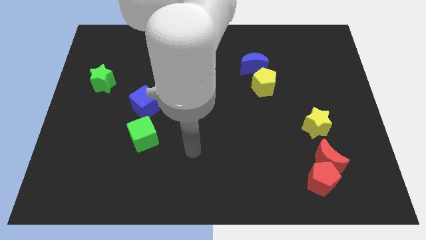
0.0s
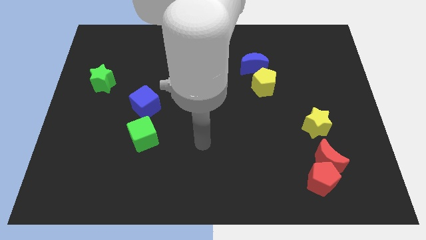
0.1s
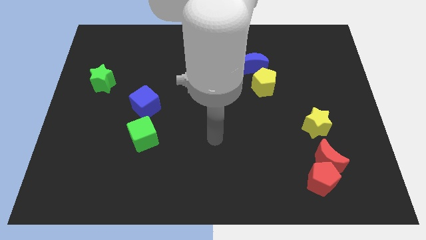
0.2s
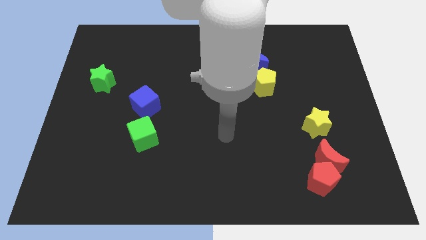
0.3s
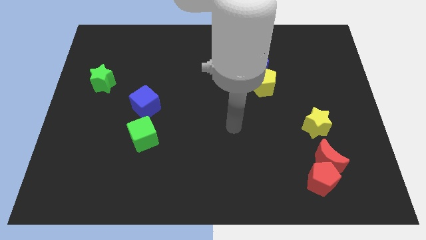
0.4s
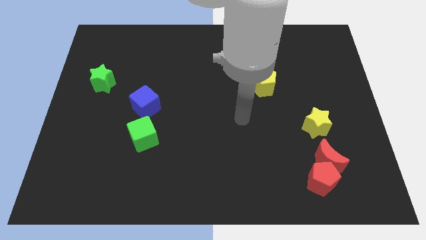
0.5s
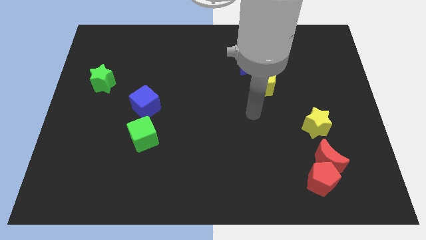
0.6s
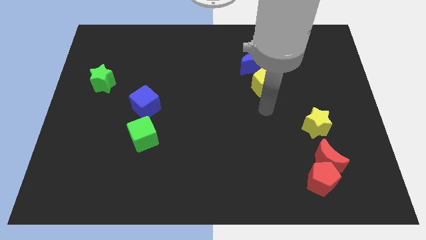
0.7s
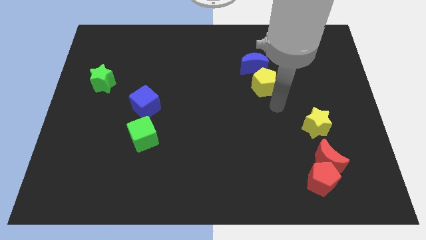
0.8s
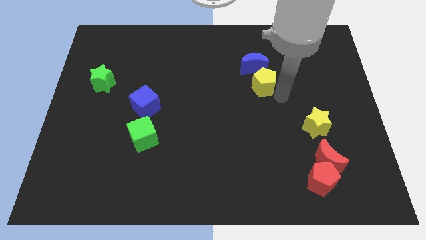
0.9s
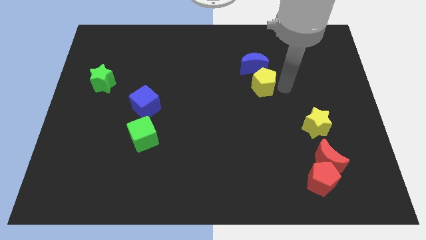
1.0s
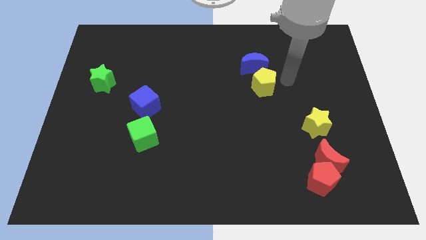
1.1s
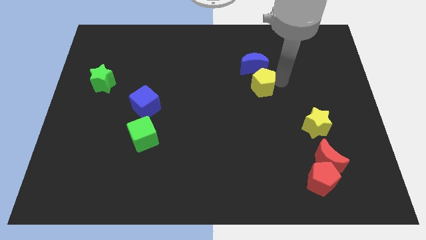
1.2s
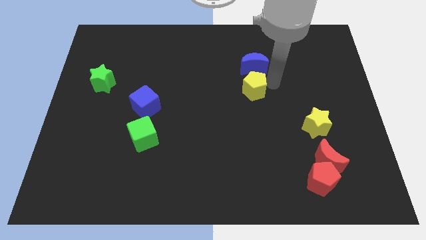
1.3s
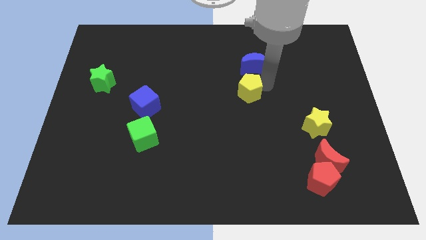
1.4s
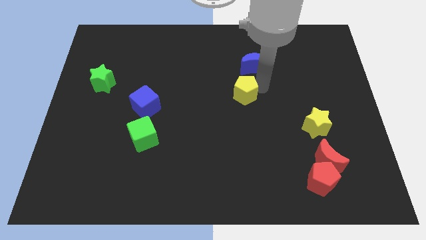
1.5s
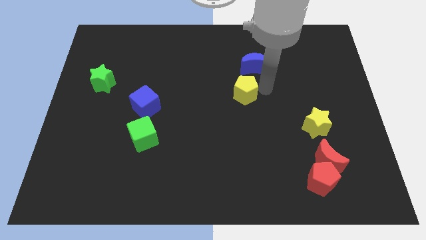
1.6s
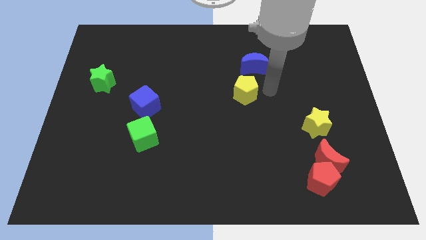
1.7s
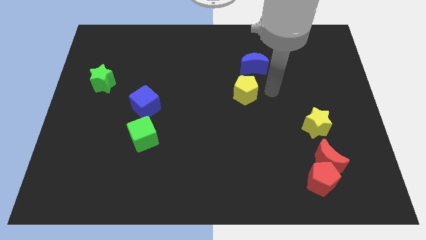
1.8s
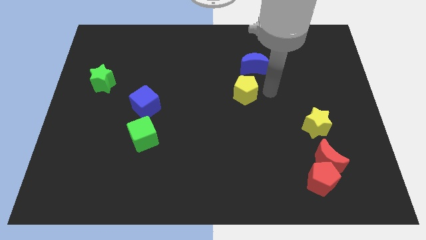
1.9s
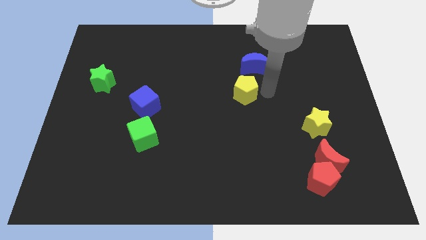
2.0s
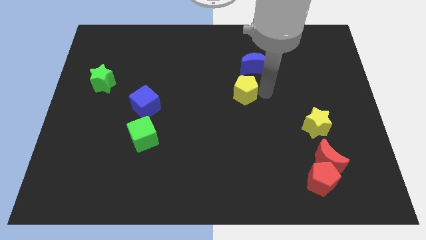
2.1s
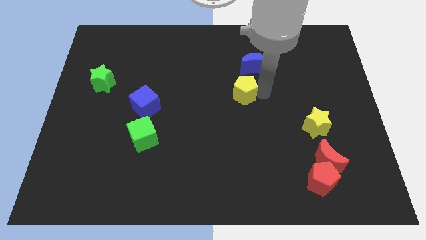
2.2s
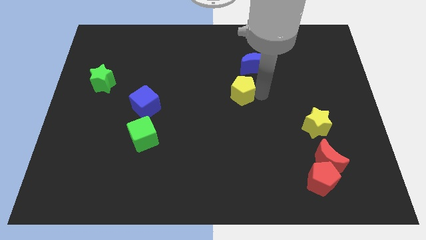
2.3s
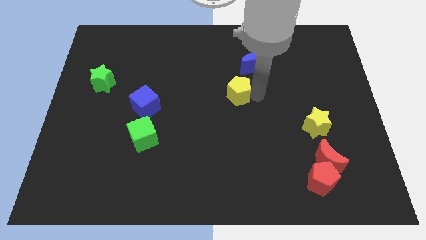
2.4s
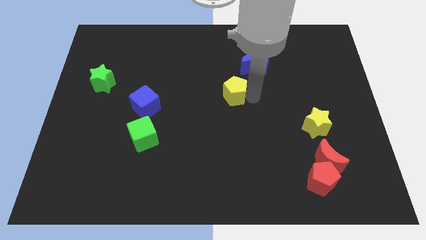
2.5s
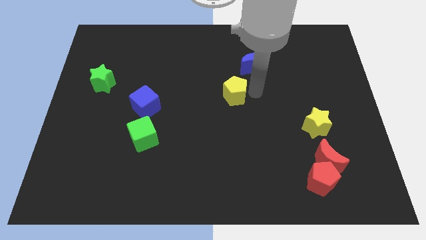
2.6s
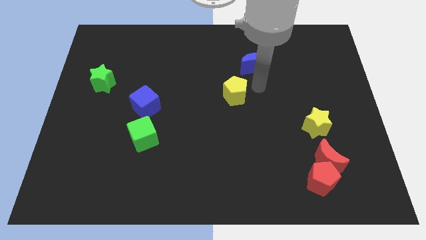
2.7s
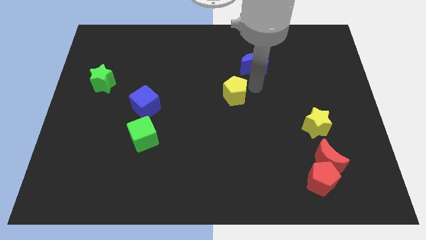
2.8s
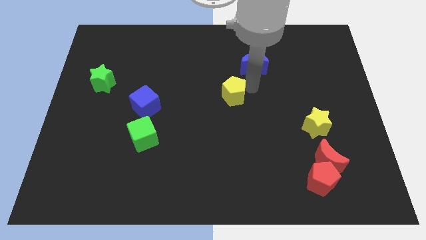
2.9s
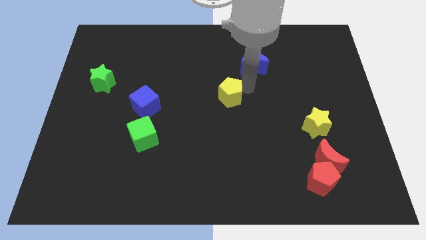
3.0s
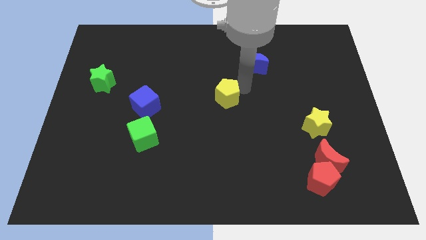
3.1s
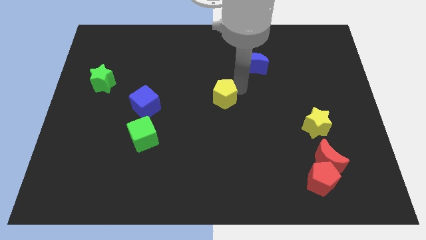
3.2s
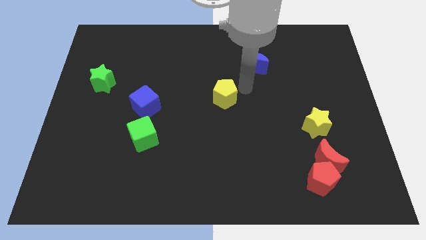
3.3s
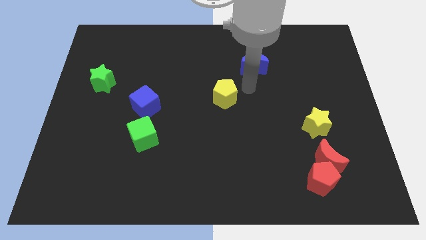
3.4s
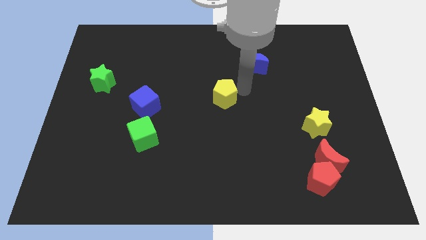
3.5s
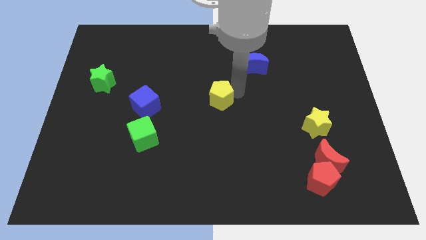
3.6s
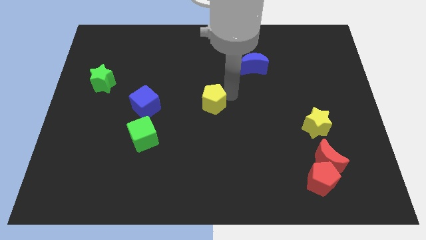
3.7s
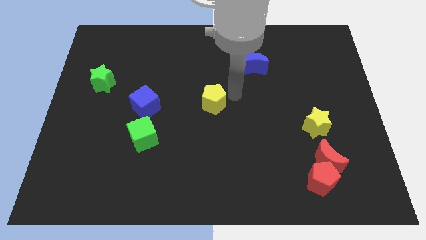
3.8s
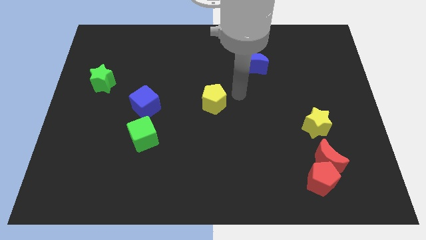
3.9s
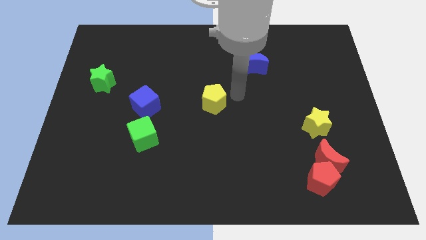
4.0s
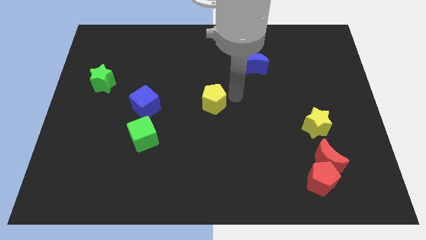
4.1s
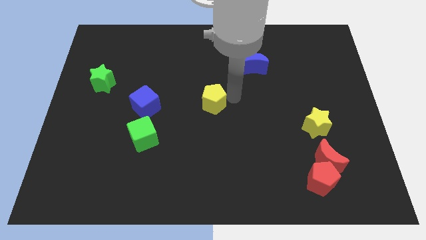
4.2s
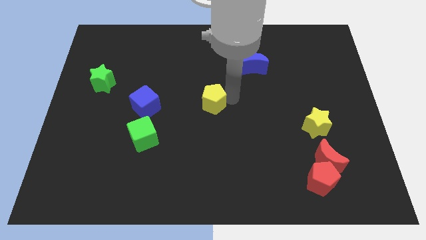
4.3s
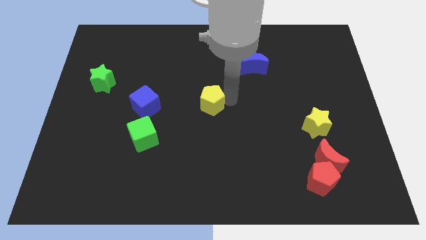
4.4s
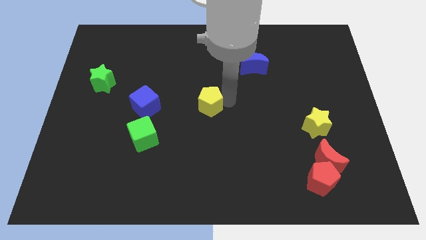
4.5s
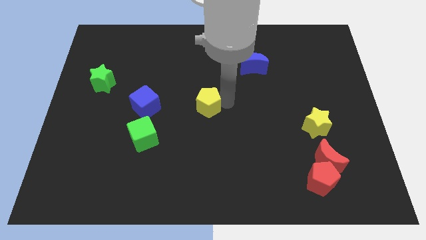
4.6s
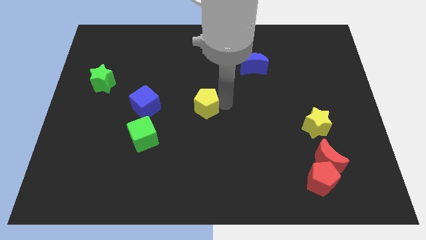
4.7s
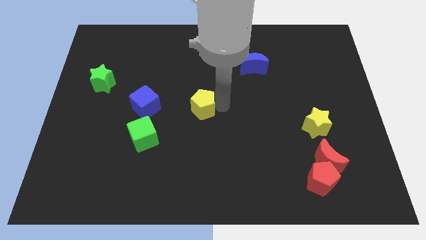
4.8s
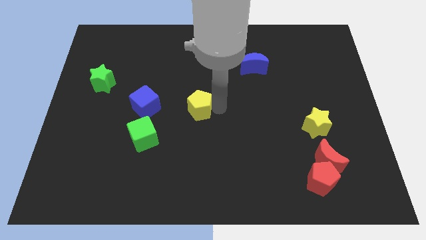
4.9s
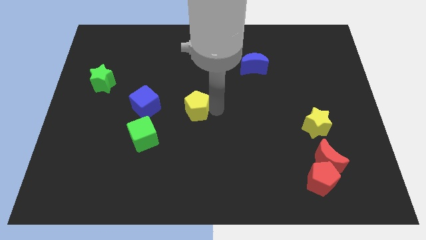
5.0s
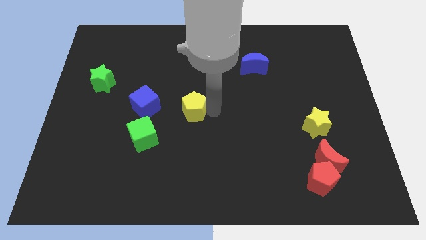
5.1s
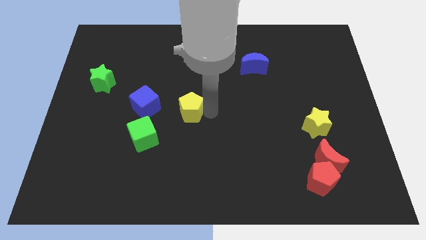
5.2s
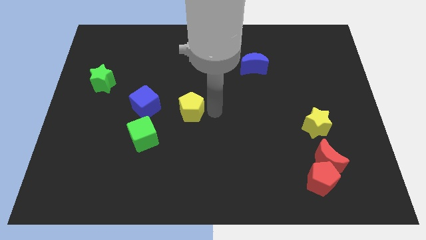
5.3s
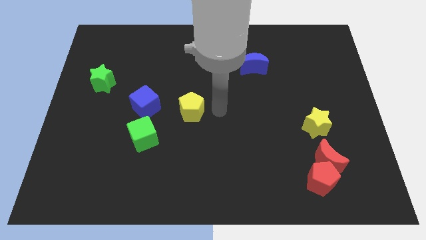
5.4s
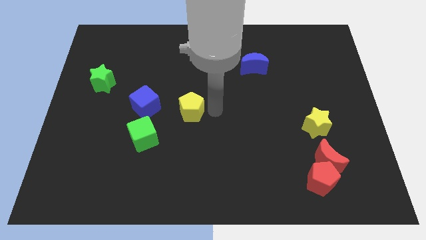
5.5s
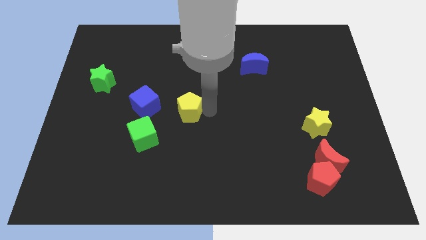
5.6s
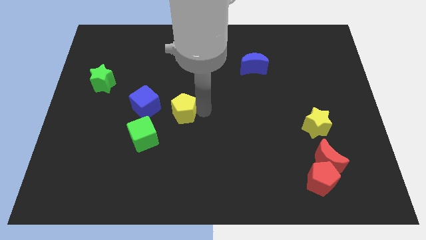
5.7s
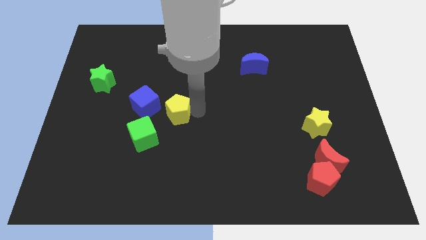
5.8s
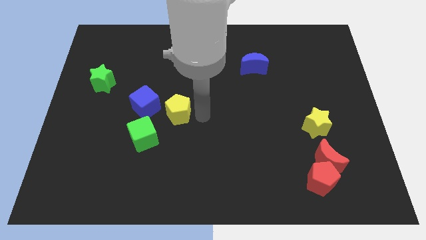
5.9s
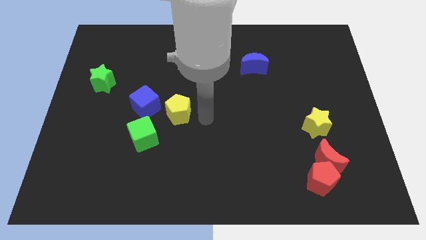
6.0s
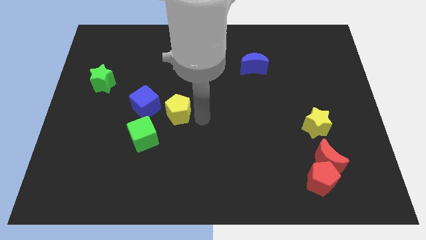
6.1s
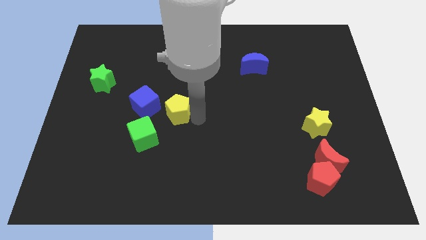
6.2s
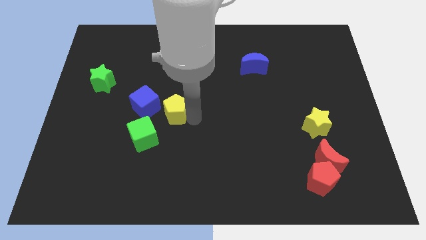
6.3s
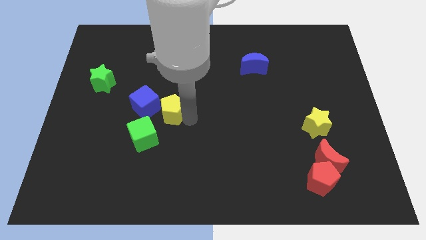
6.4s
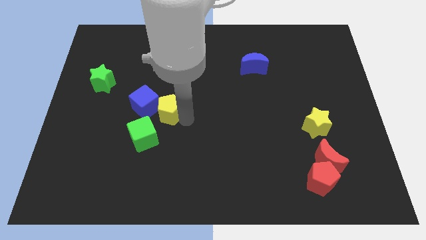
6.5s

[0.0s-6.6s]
slide the yellow pentagon towards the blue cube

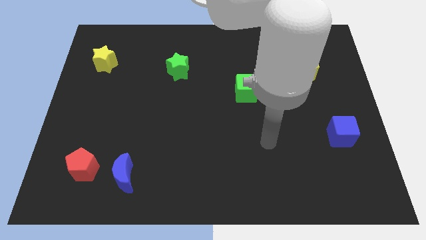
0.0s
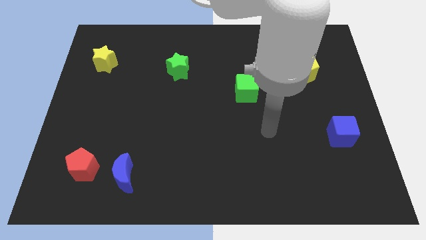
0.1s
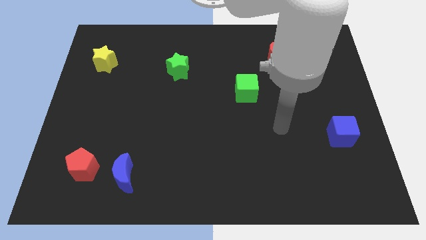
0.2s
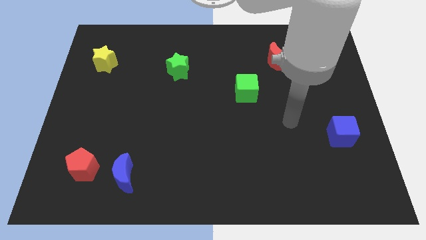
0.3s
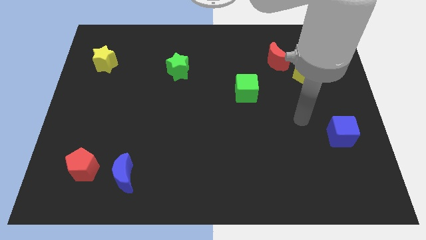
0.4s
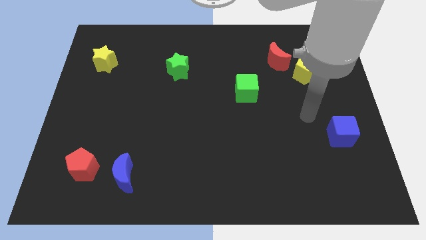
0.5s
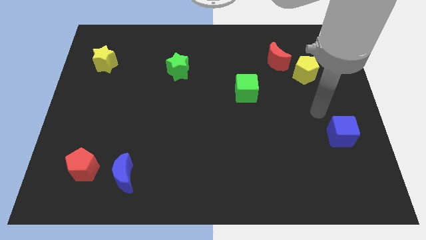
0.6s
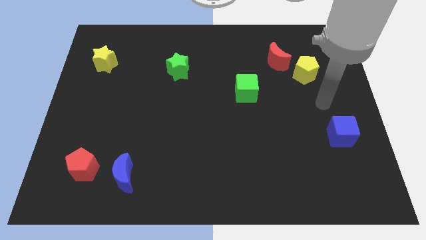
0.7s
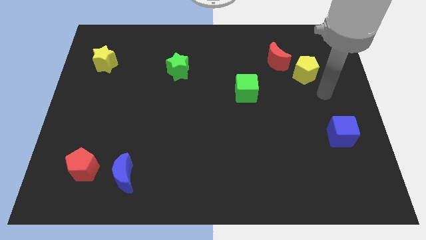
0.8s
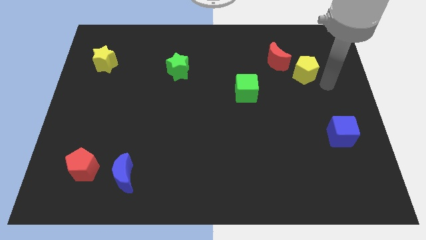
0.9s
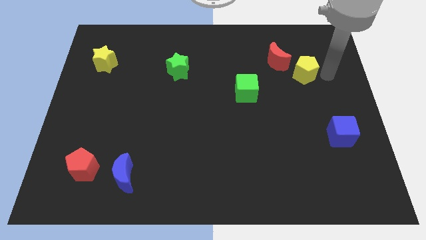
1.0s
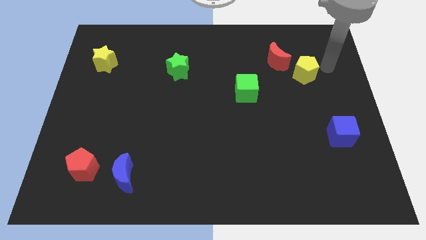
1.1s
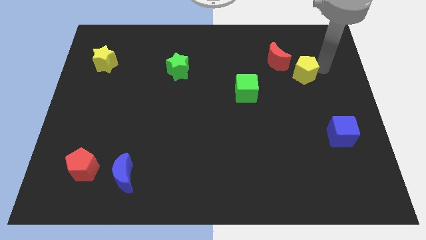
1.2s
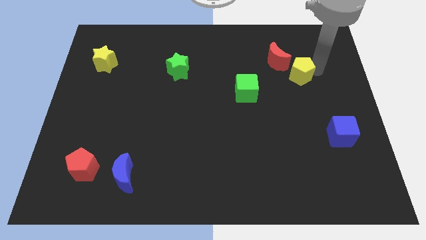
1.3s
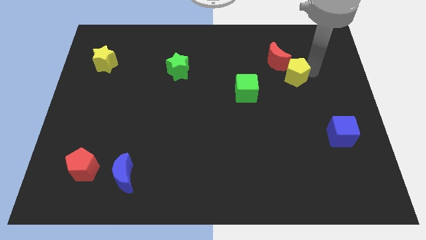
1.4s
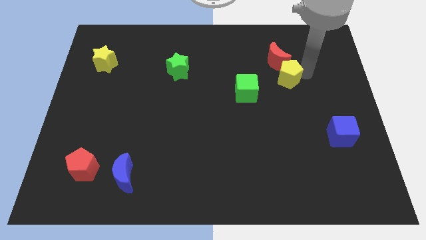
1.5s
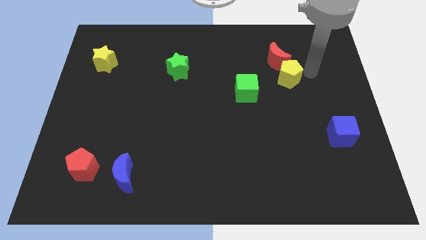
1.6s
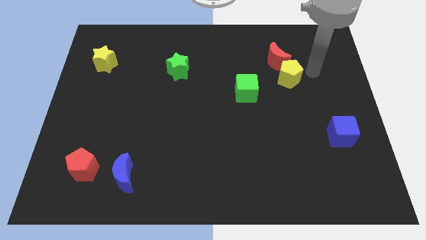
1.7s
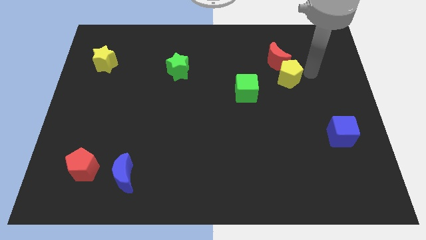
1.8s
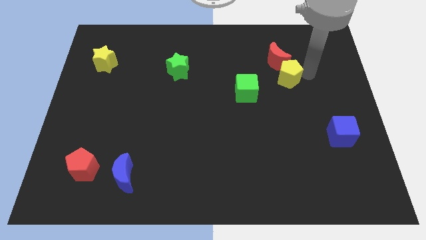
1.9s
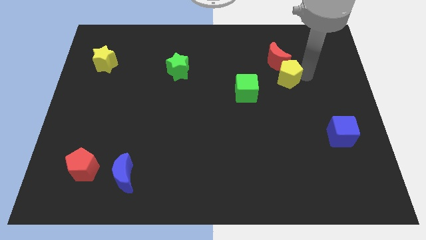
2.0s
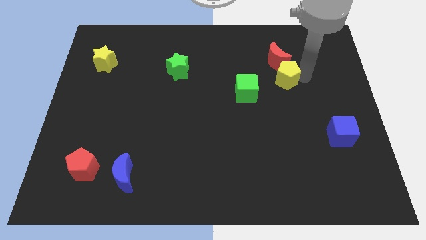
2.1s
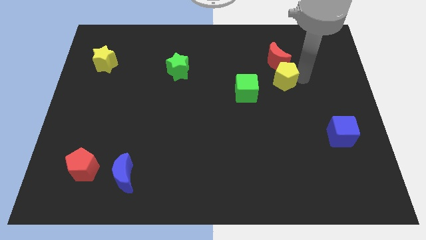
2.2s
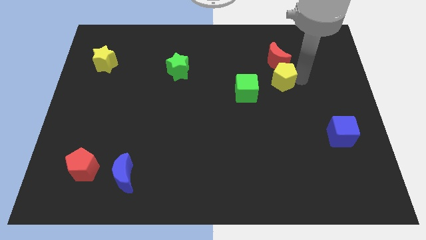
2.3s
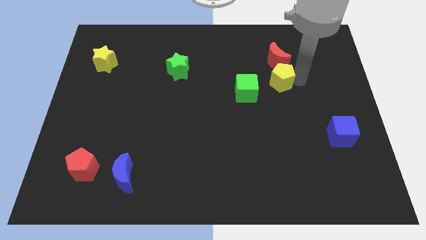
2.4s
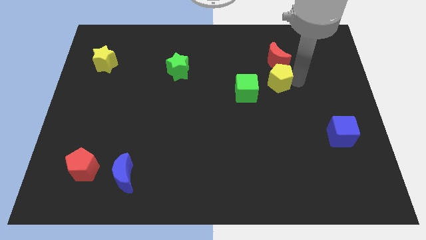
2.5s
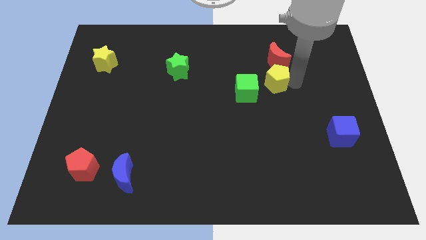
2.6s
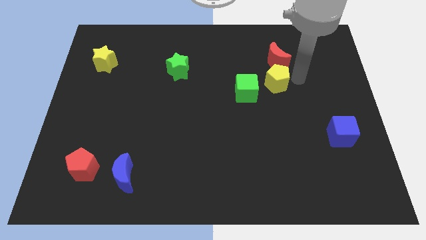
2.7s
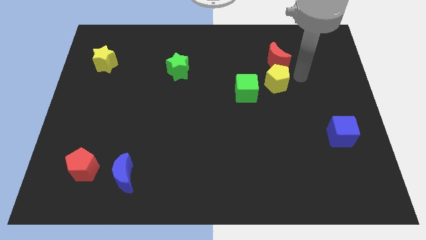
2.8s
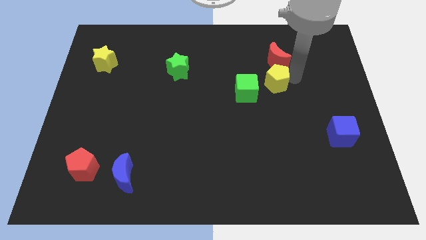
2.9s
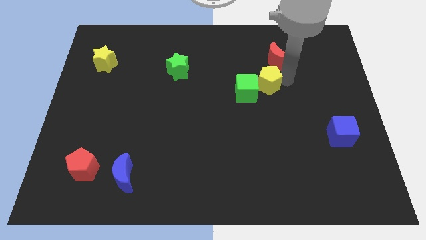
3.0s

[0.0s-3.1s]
push the yellow pentagon to the green cube
